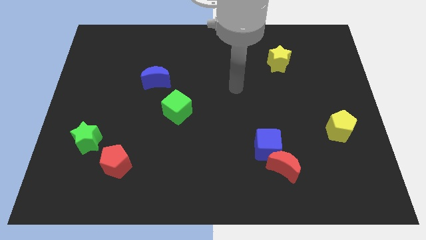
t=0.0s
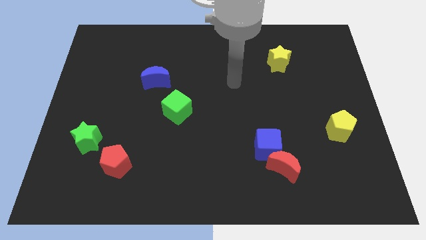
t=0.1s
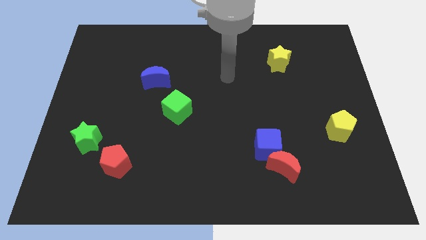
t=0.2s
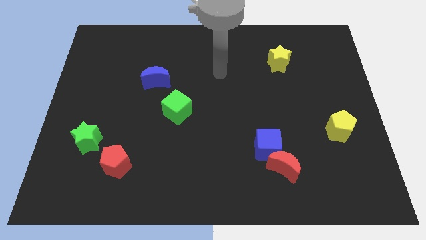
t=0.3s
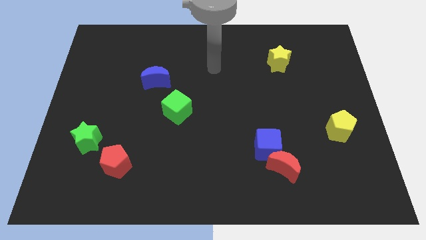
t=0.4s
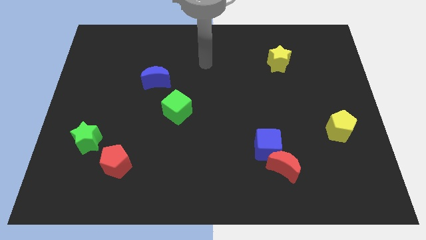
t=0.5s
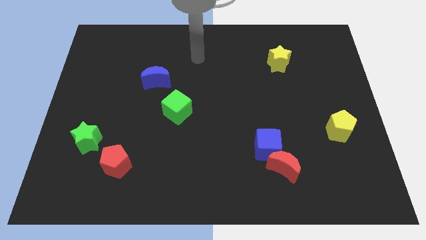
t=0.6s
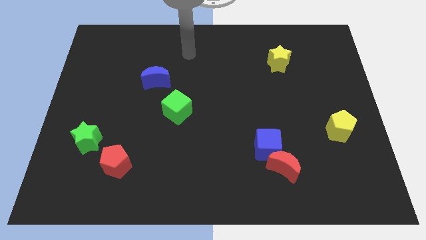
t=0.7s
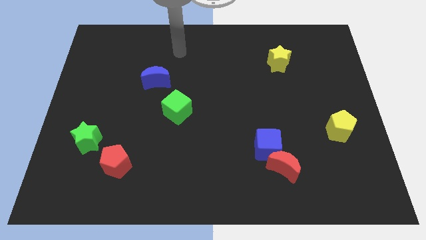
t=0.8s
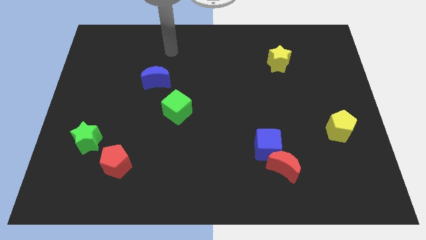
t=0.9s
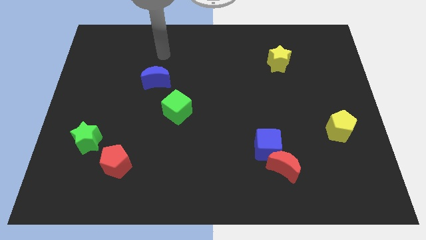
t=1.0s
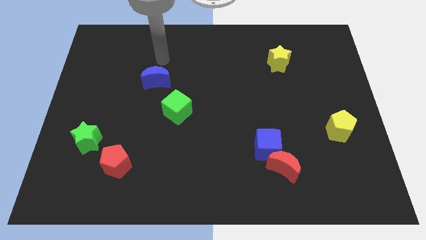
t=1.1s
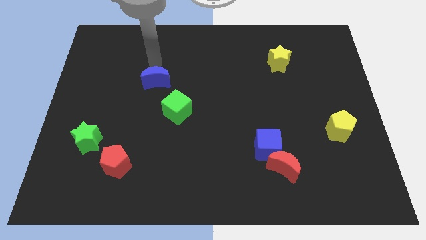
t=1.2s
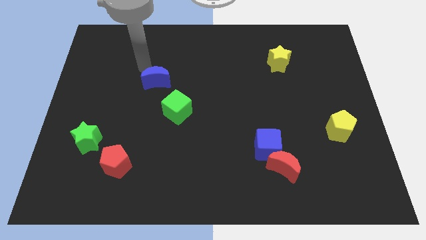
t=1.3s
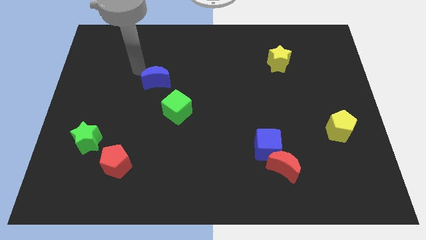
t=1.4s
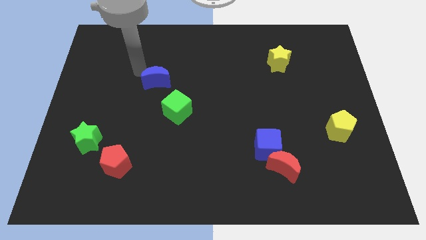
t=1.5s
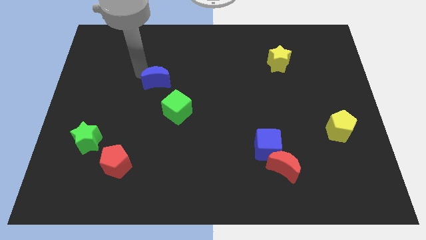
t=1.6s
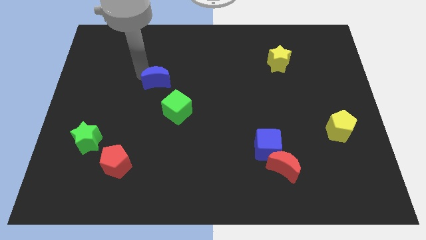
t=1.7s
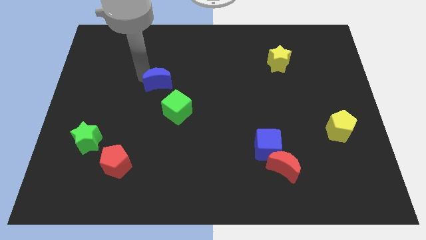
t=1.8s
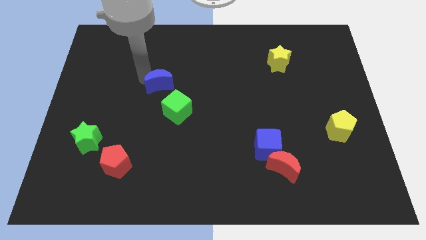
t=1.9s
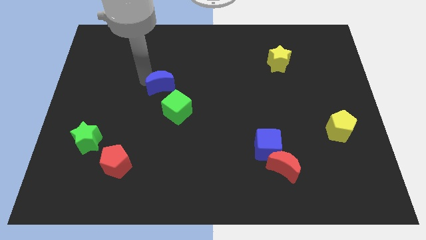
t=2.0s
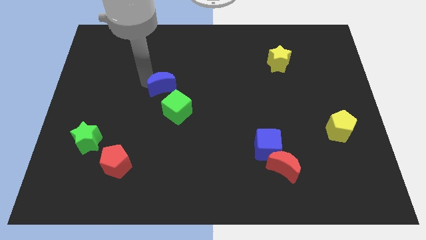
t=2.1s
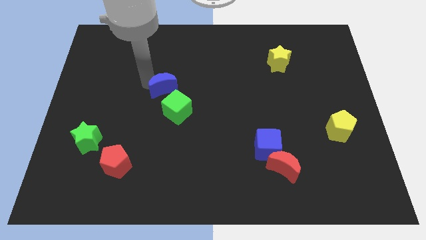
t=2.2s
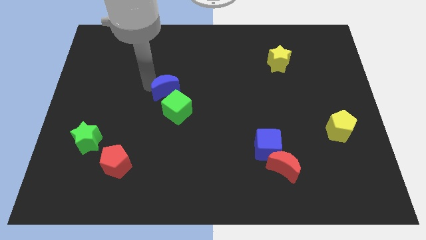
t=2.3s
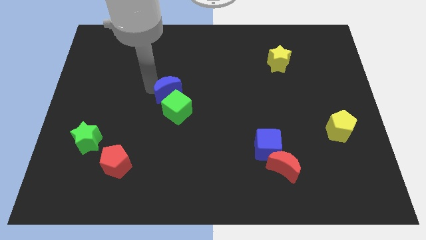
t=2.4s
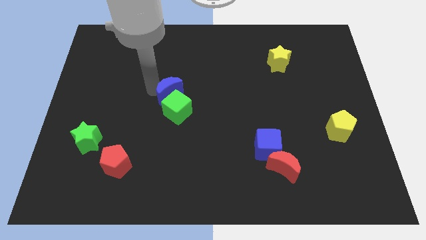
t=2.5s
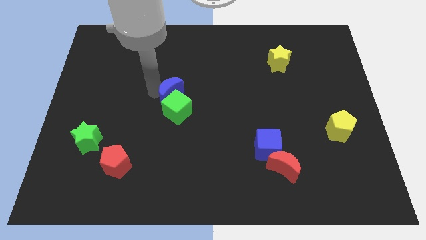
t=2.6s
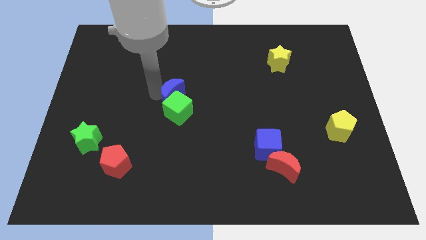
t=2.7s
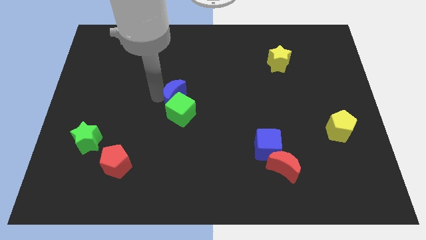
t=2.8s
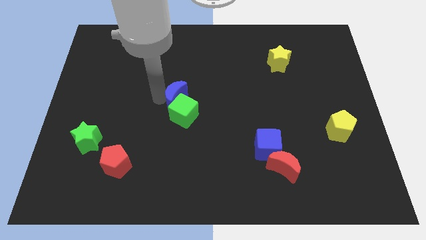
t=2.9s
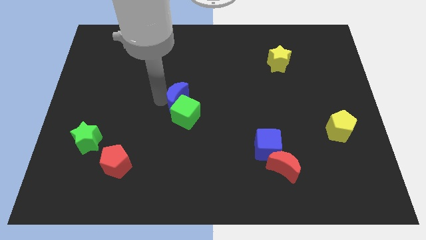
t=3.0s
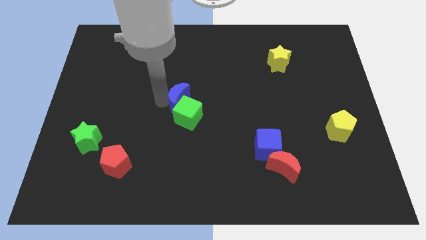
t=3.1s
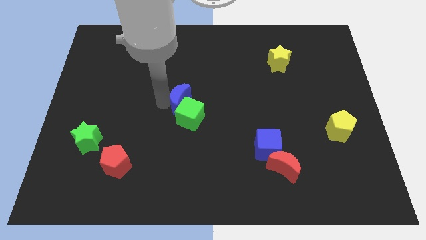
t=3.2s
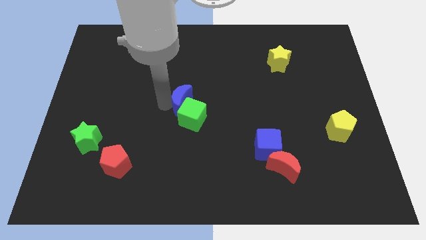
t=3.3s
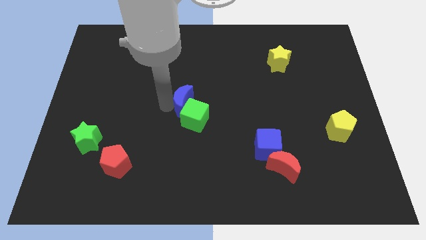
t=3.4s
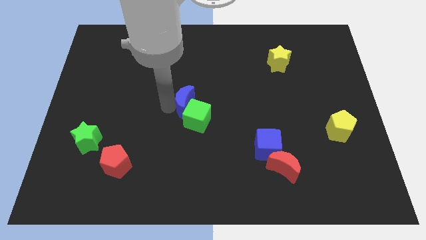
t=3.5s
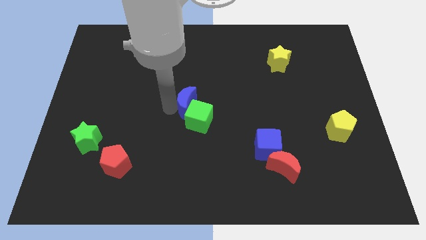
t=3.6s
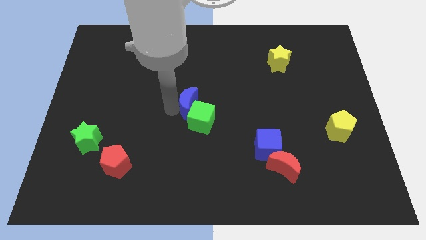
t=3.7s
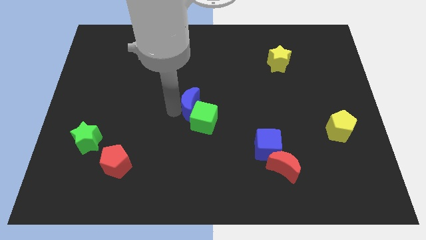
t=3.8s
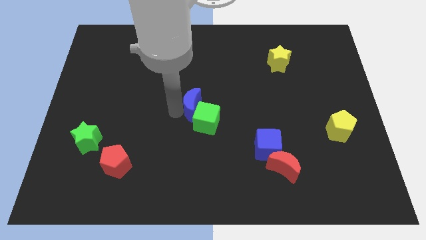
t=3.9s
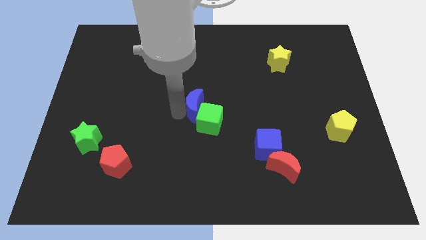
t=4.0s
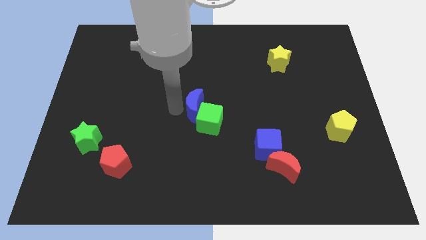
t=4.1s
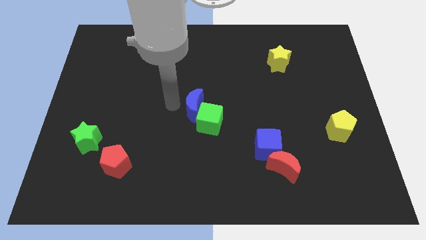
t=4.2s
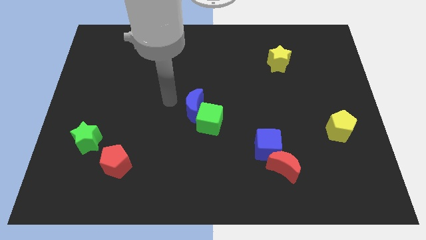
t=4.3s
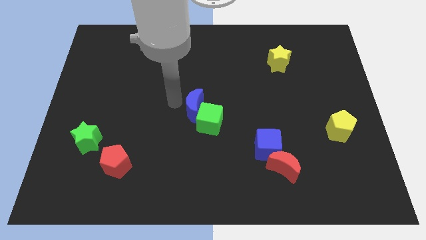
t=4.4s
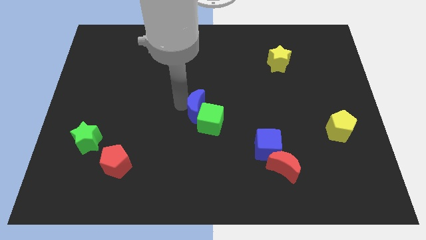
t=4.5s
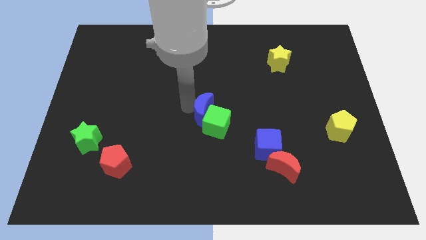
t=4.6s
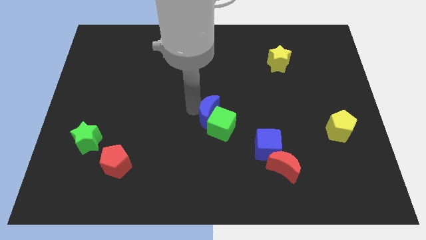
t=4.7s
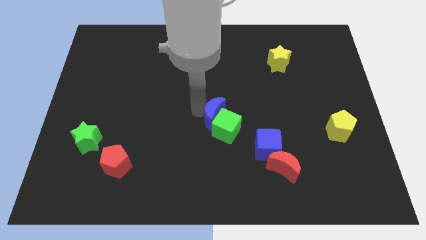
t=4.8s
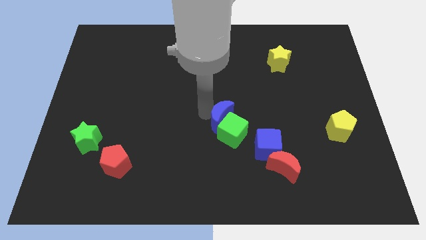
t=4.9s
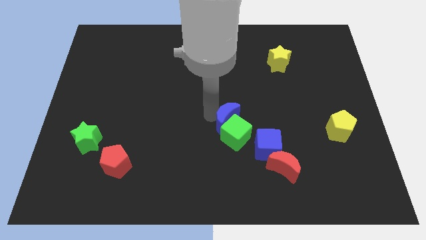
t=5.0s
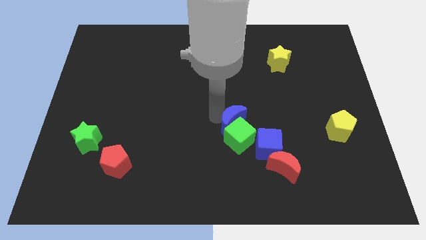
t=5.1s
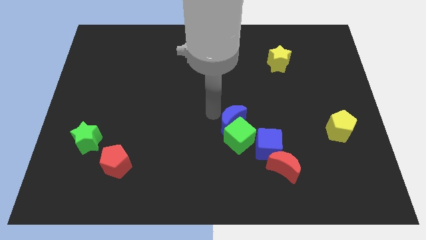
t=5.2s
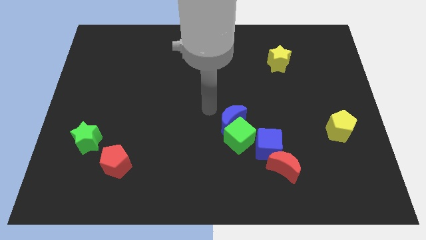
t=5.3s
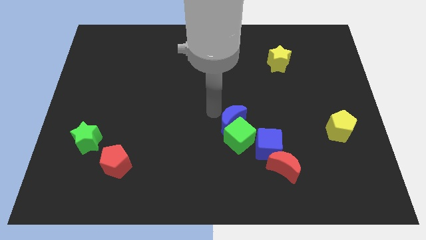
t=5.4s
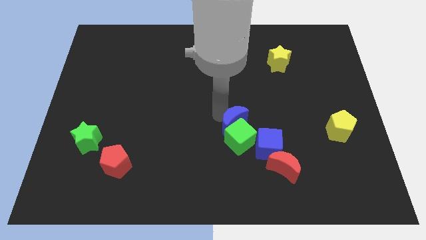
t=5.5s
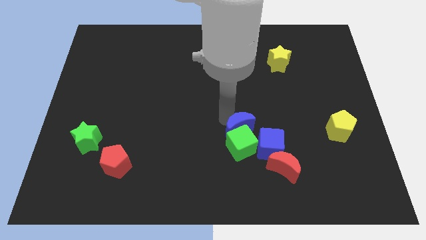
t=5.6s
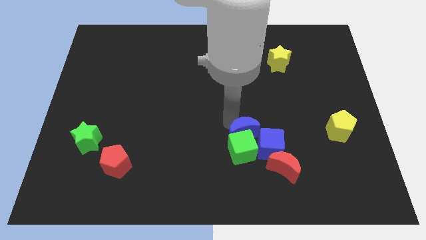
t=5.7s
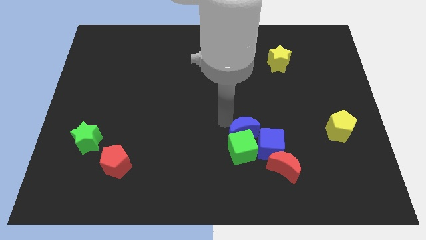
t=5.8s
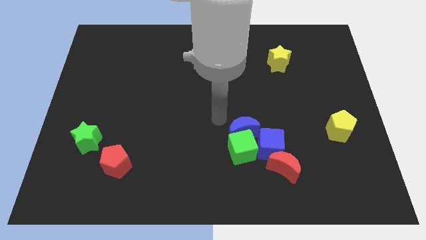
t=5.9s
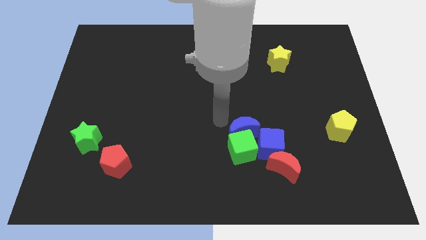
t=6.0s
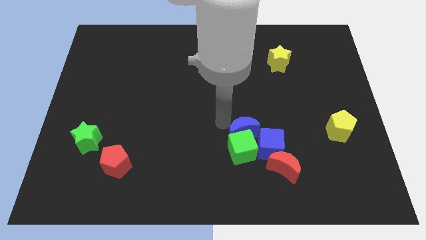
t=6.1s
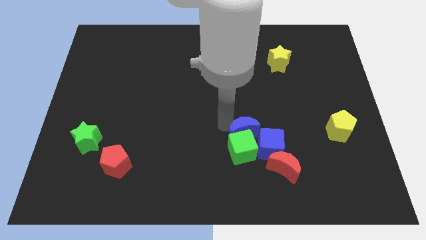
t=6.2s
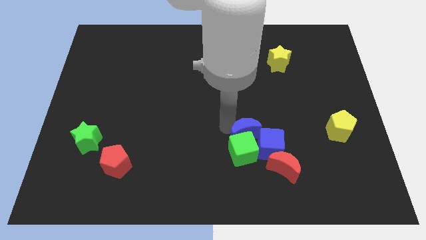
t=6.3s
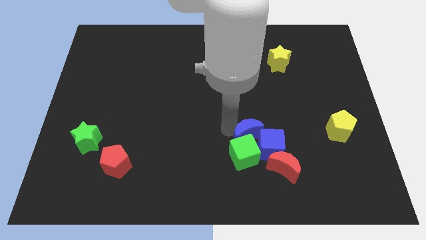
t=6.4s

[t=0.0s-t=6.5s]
put the blue moon next to the blue cube
